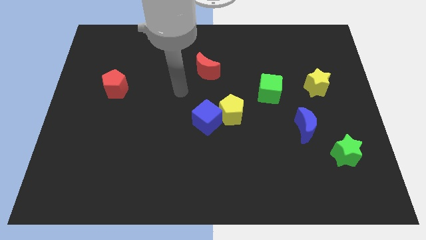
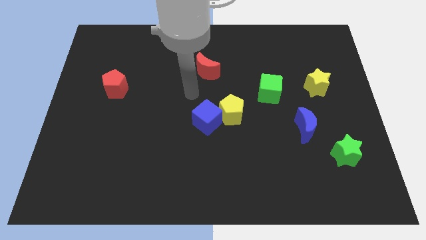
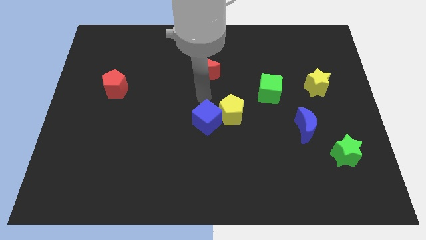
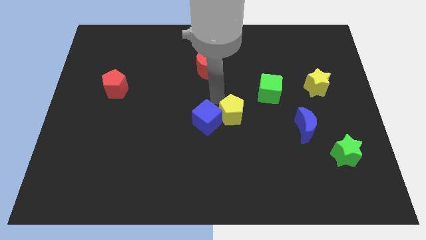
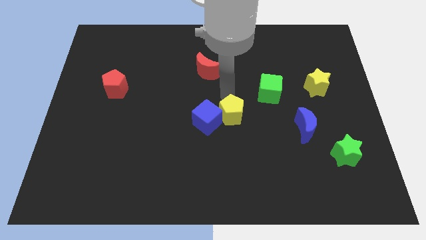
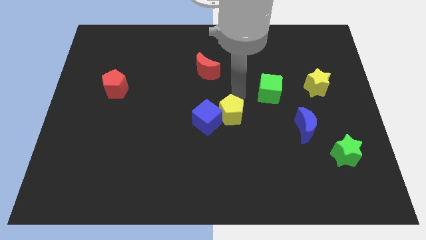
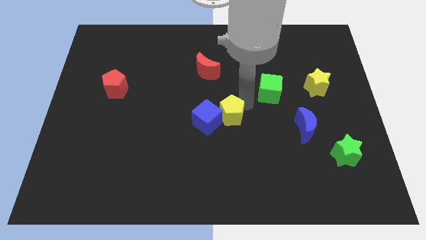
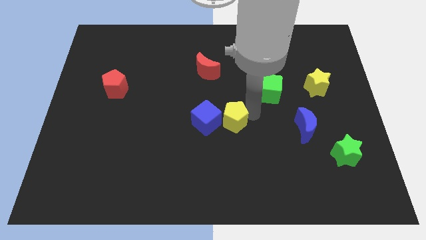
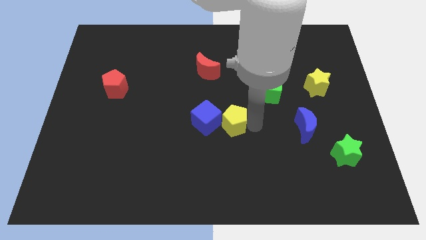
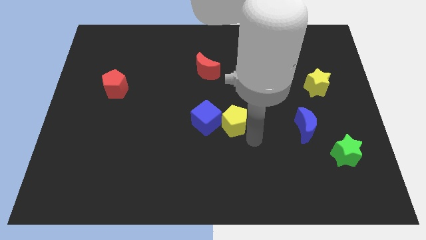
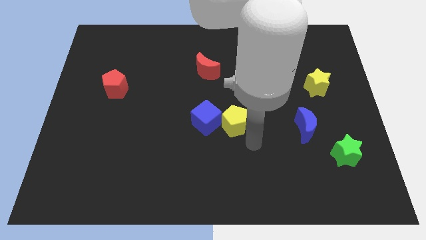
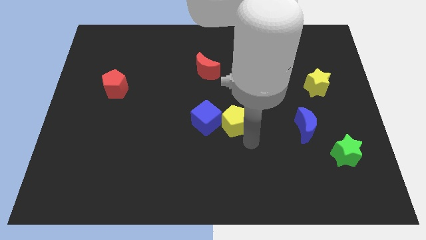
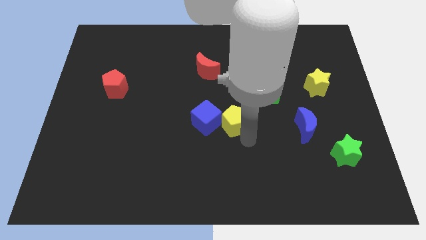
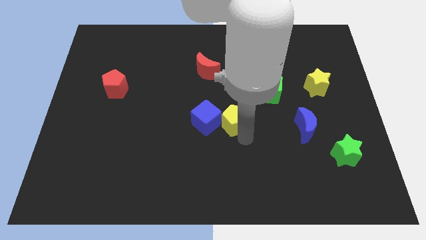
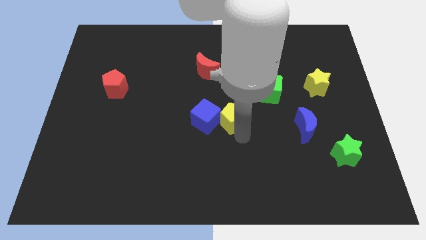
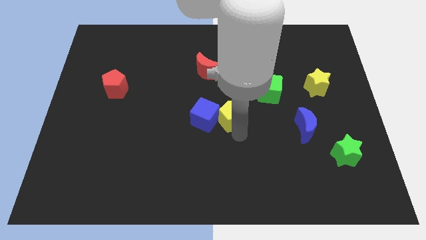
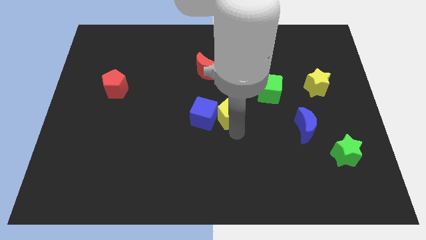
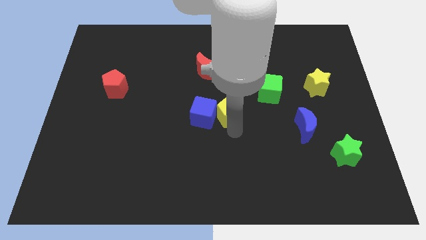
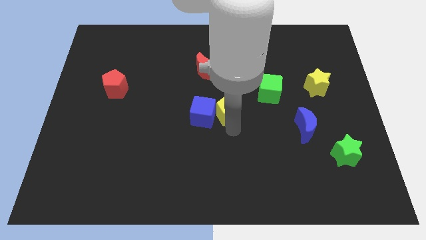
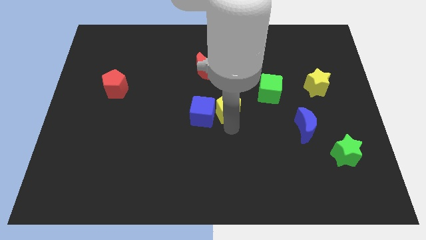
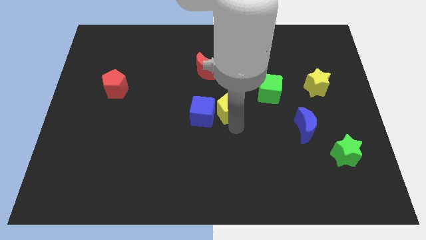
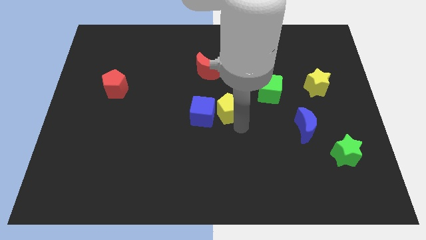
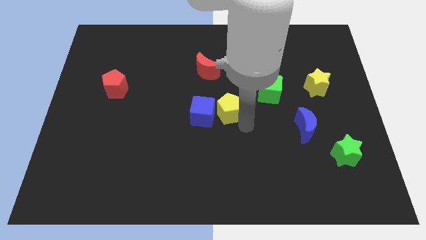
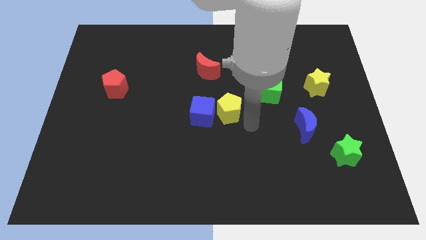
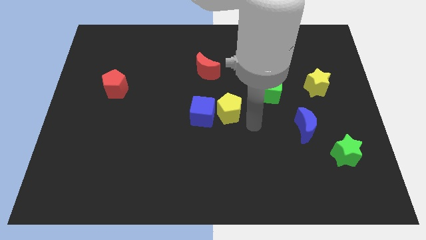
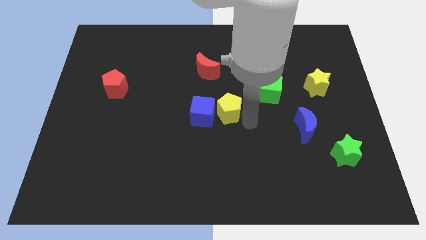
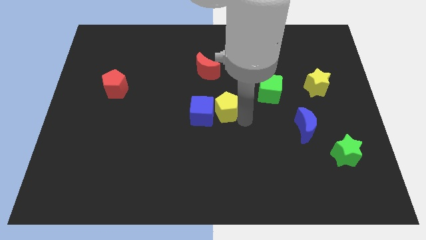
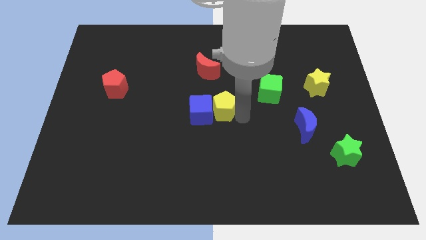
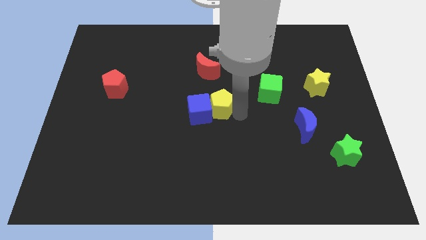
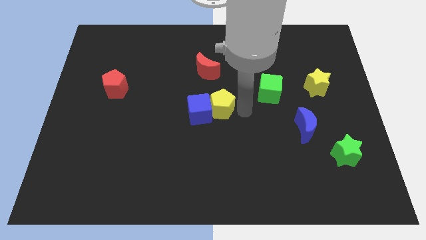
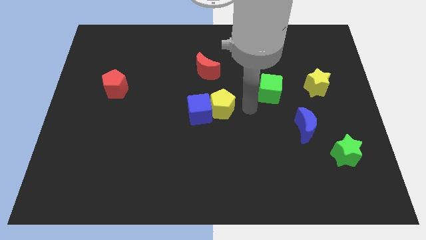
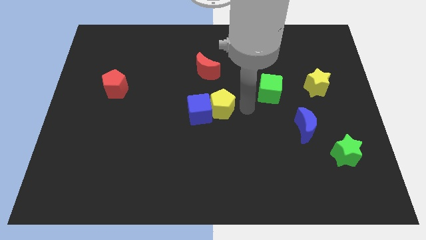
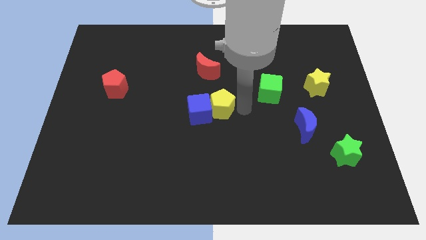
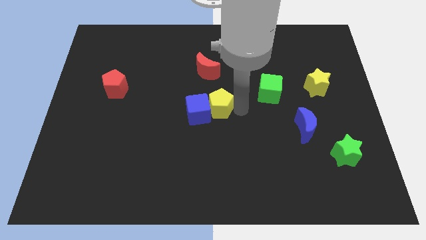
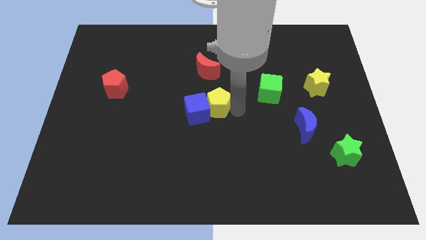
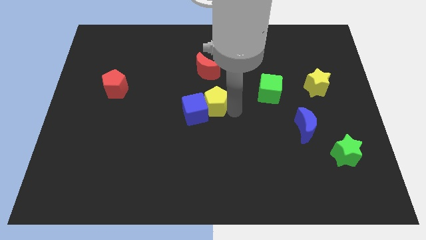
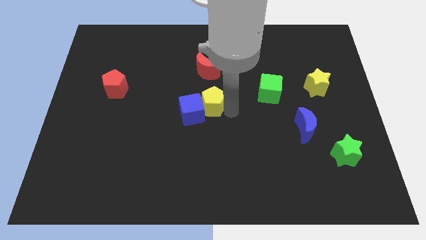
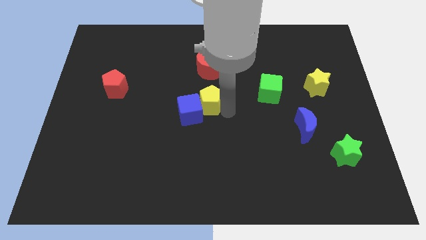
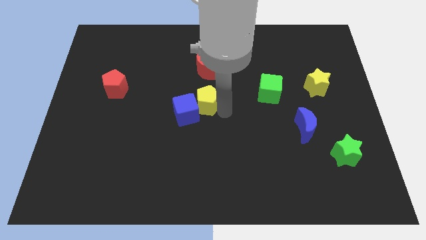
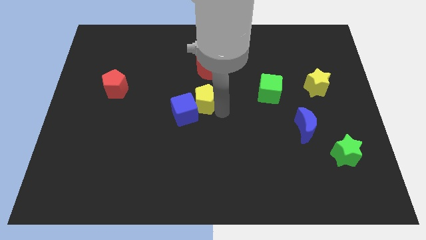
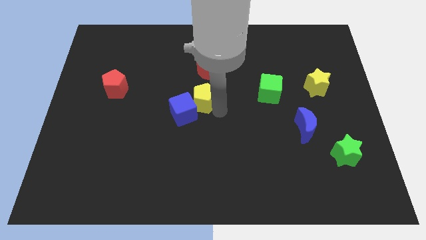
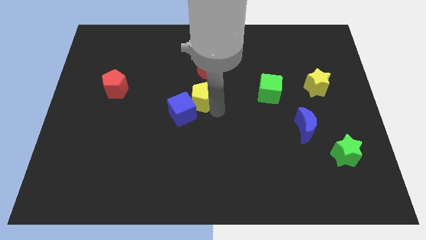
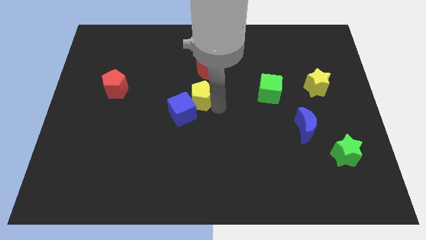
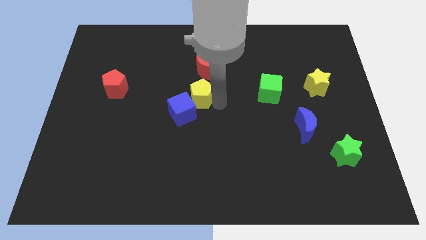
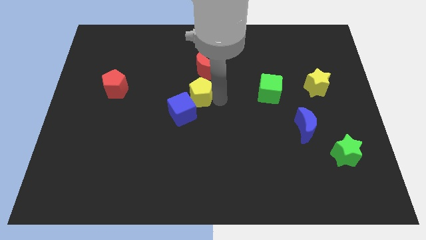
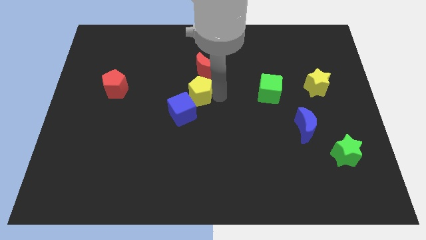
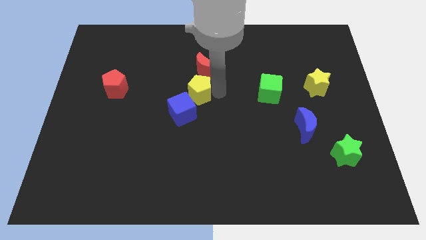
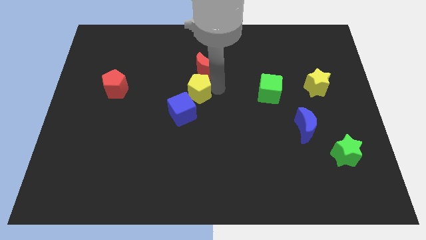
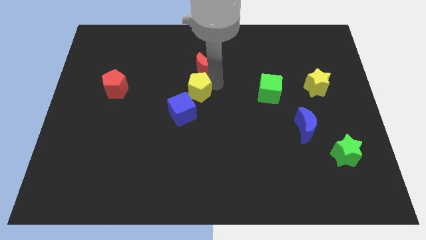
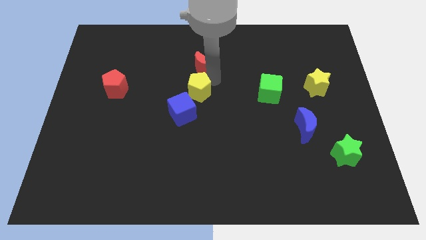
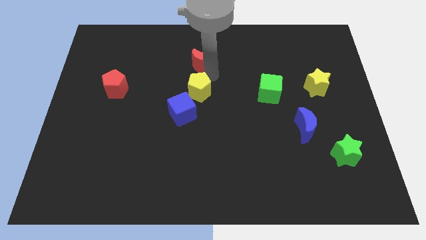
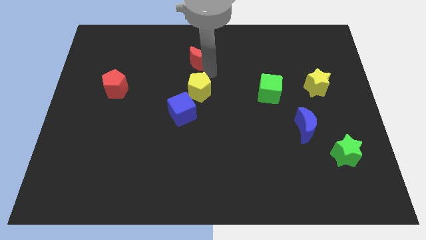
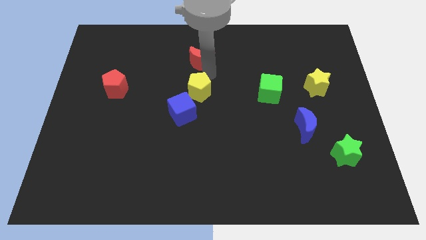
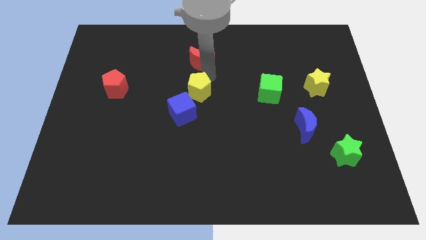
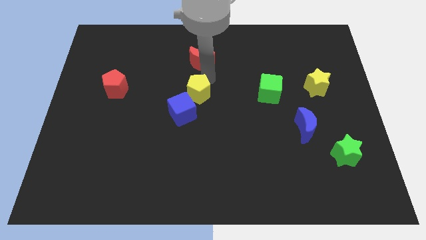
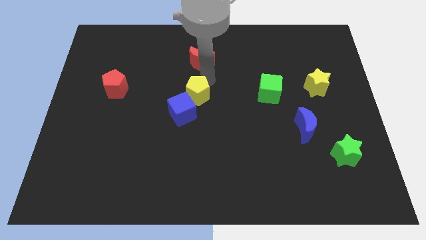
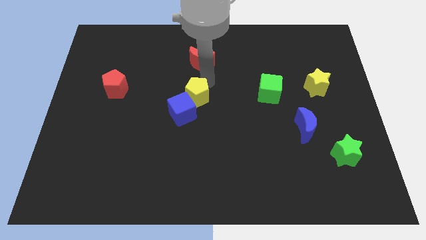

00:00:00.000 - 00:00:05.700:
slightly move the yellow pentagon left

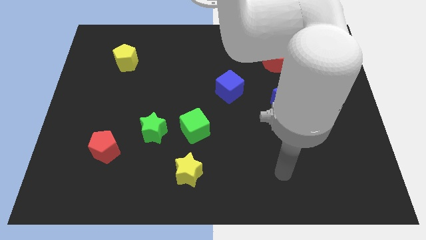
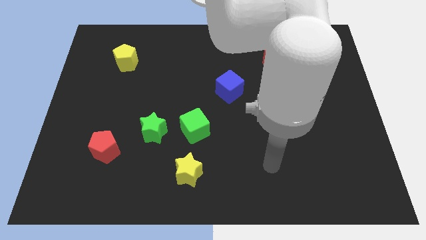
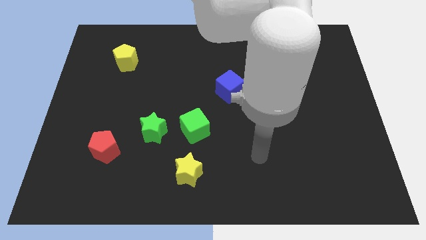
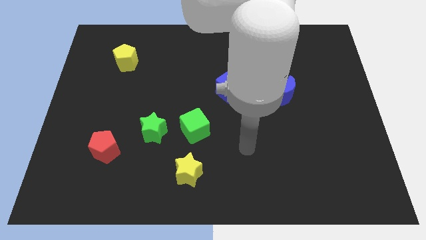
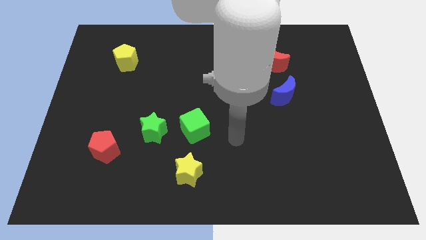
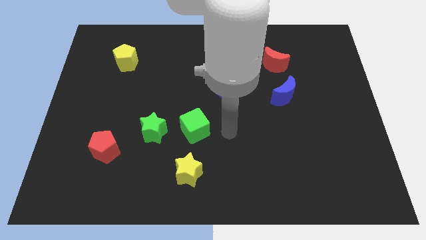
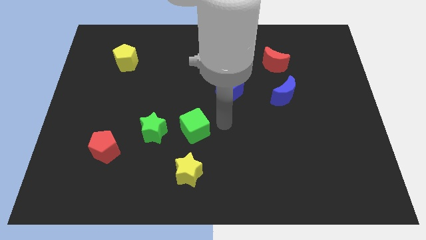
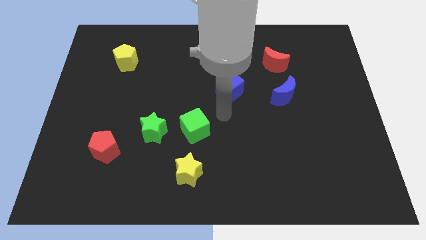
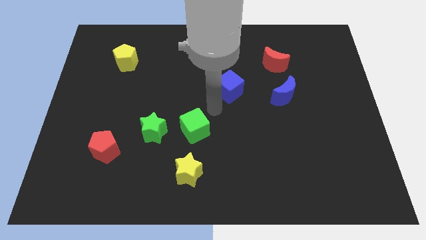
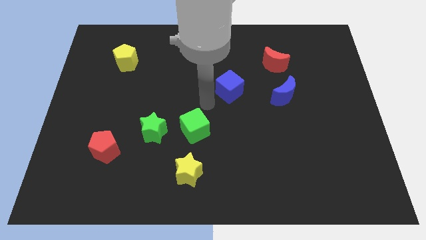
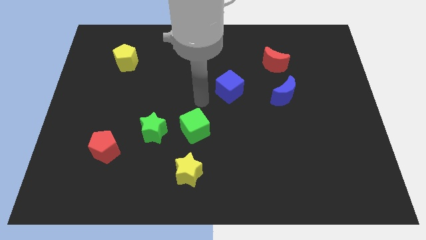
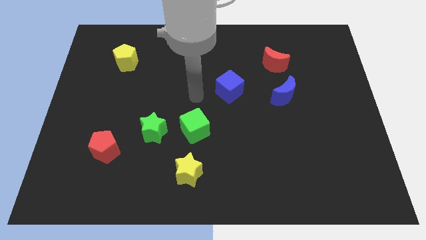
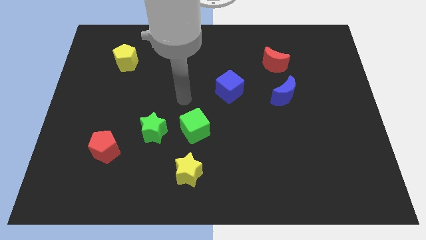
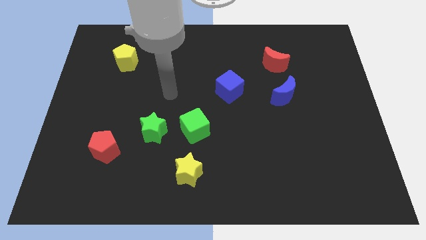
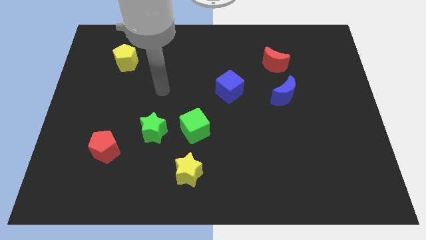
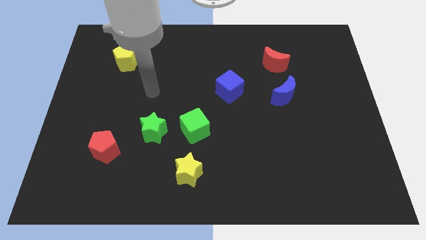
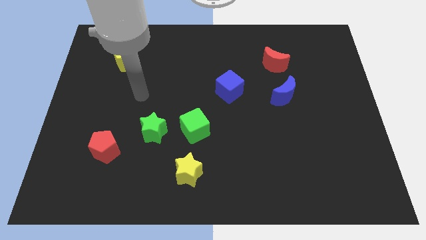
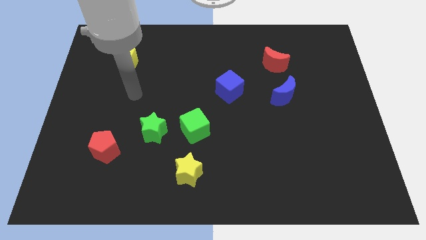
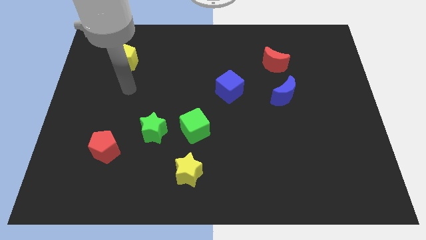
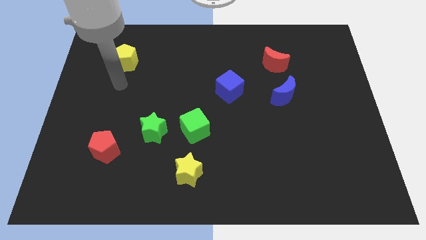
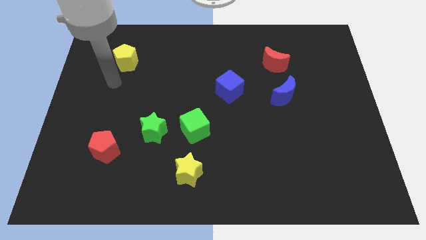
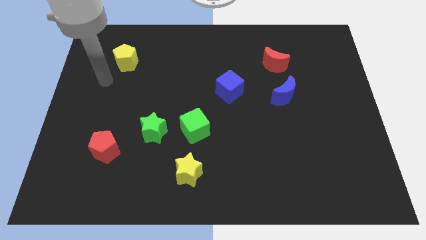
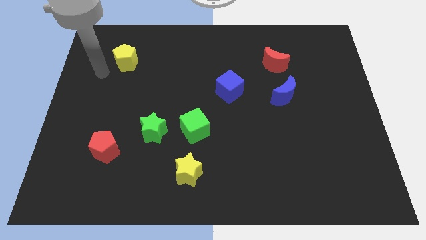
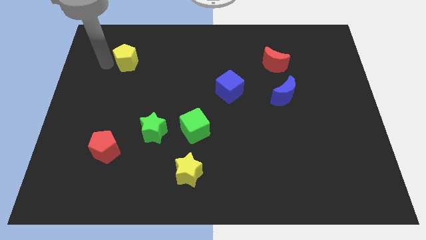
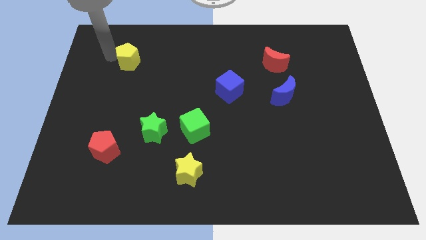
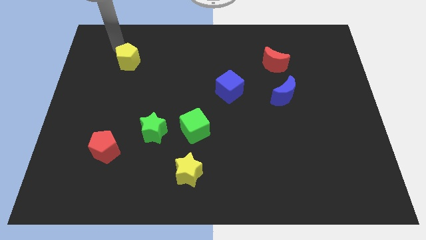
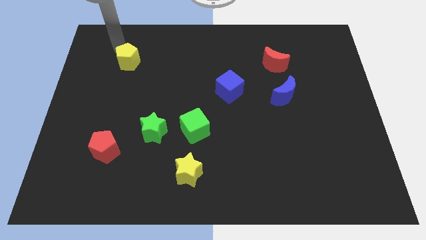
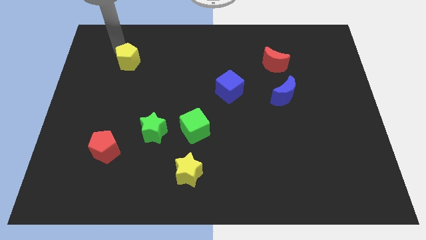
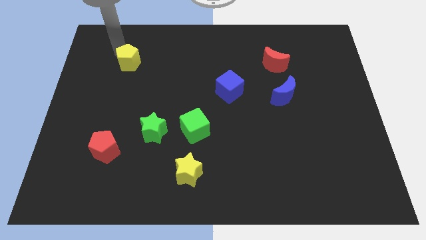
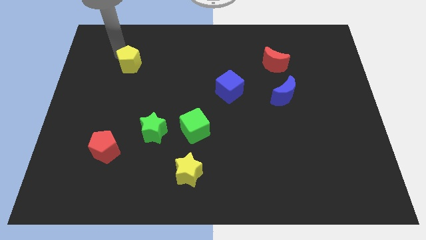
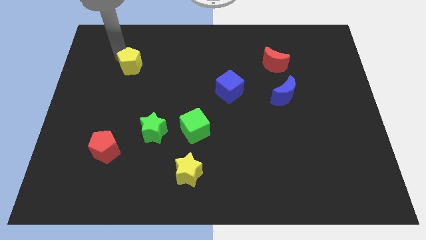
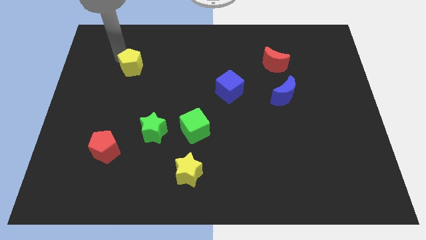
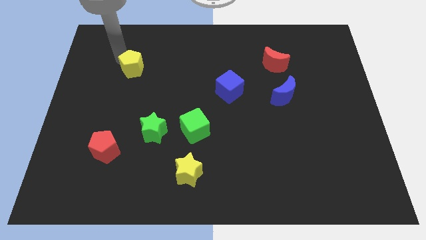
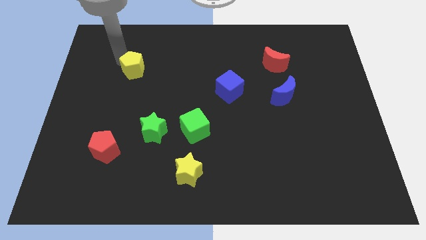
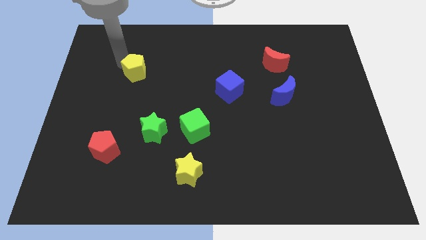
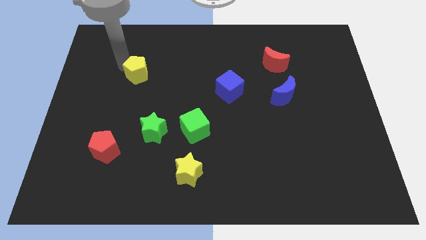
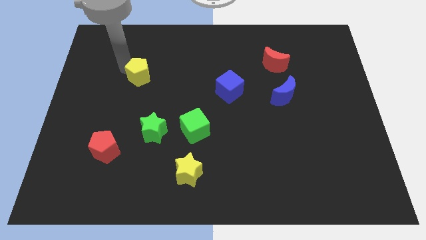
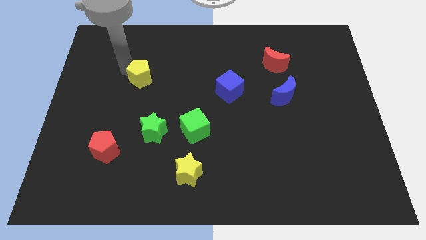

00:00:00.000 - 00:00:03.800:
move the yellow pentagon a little bit down and then right
